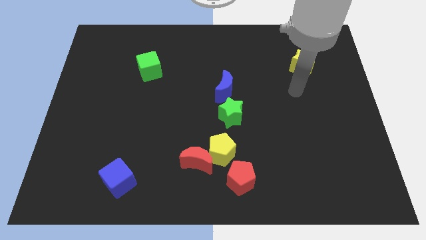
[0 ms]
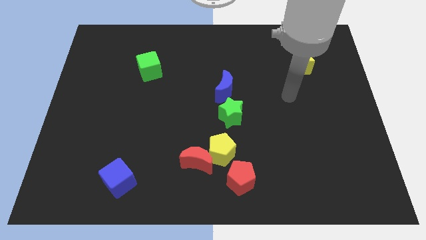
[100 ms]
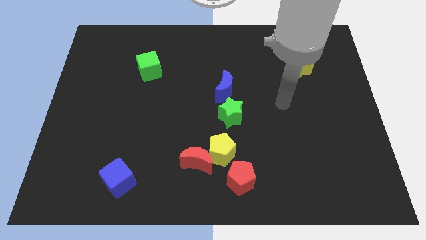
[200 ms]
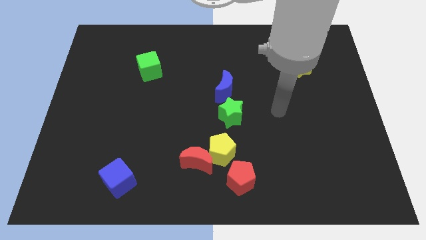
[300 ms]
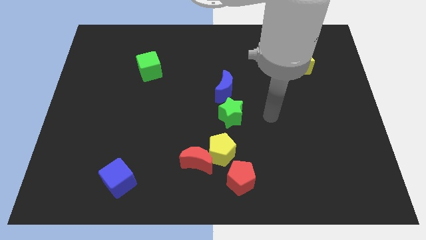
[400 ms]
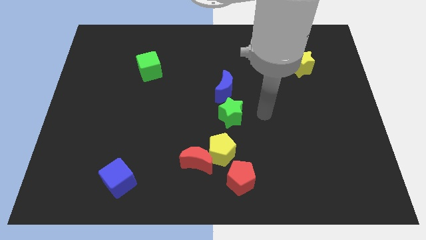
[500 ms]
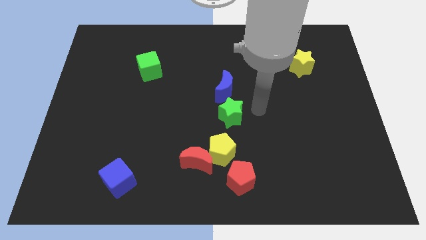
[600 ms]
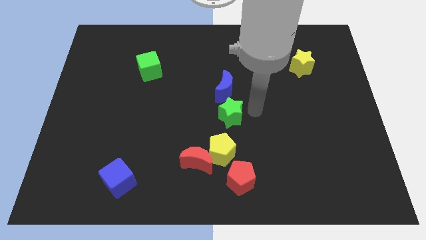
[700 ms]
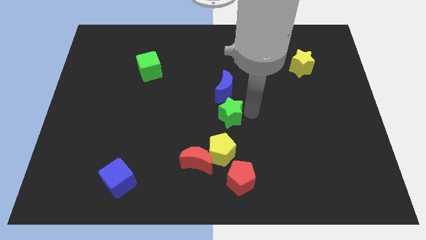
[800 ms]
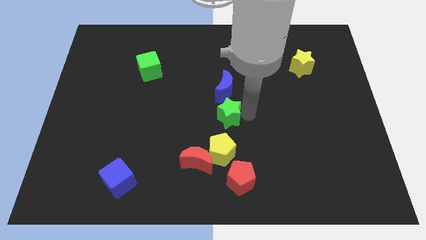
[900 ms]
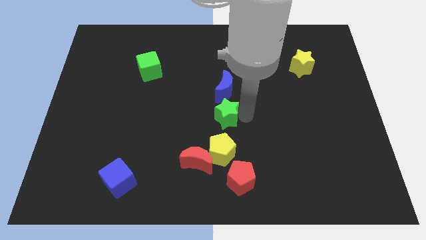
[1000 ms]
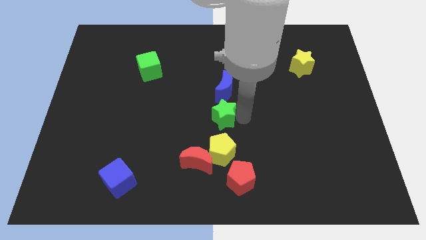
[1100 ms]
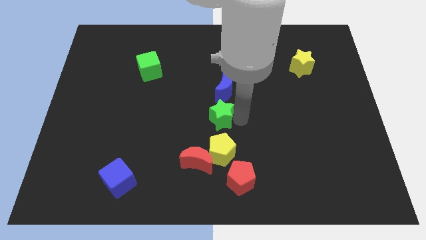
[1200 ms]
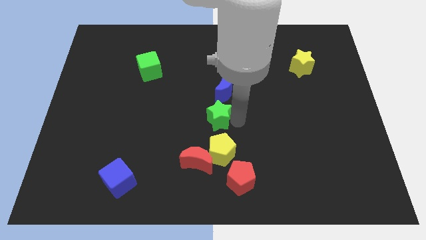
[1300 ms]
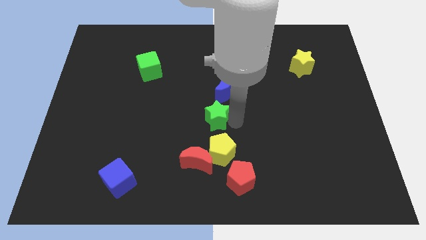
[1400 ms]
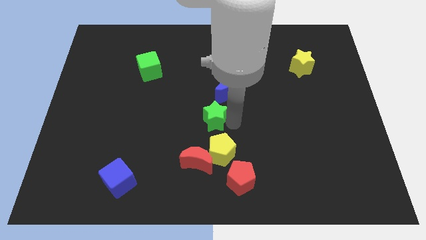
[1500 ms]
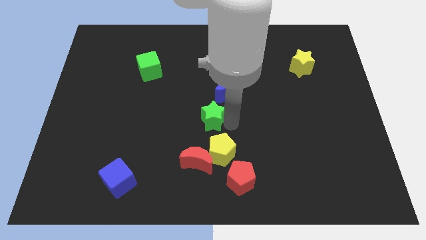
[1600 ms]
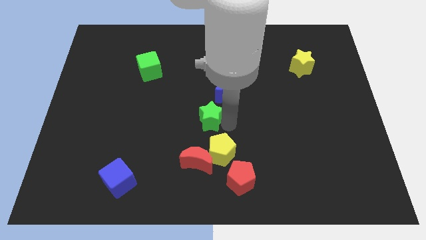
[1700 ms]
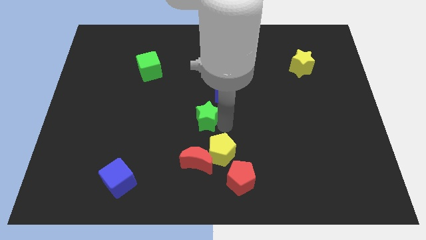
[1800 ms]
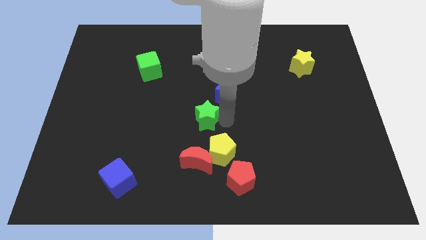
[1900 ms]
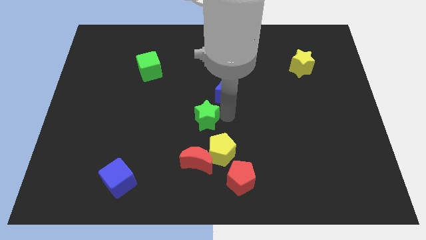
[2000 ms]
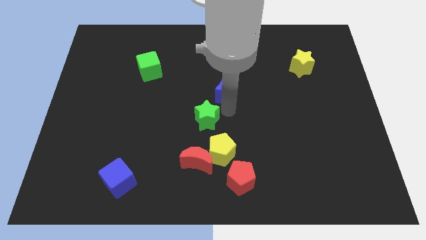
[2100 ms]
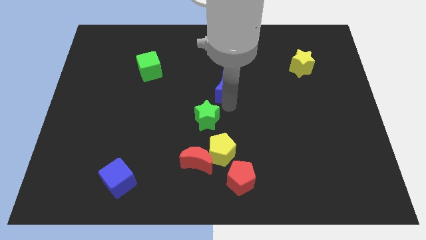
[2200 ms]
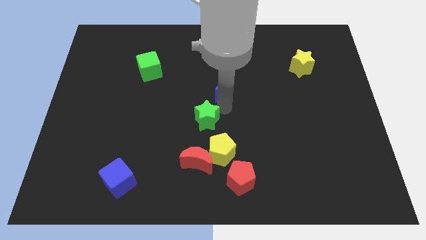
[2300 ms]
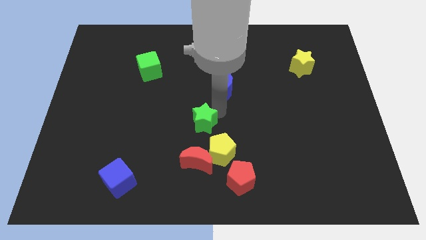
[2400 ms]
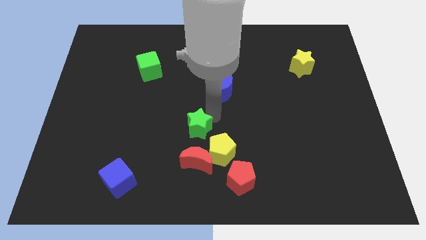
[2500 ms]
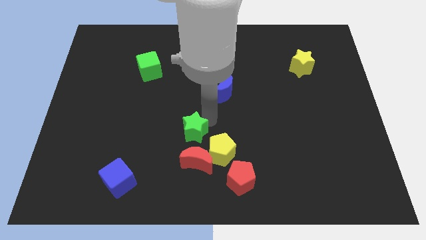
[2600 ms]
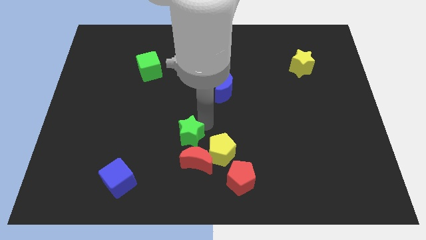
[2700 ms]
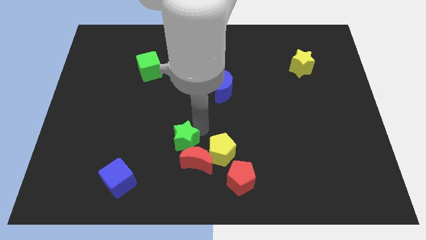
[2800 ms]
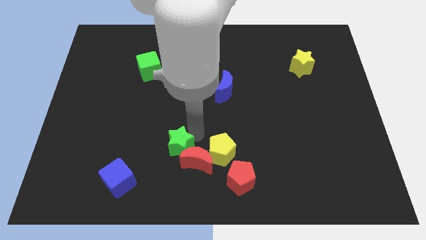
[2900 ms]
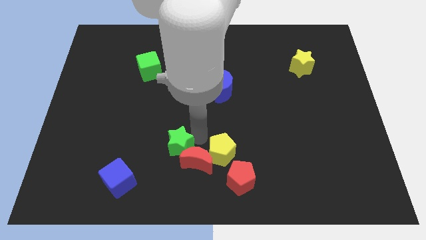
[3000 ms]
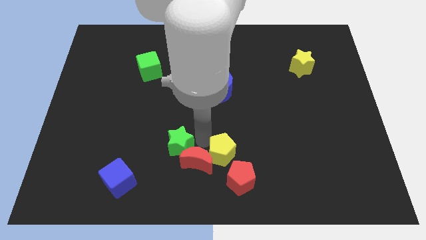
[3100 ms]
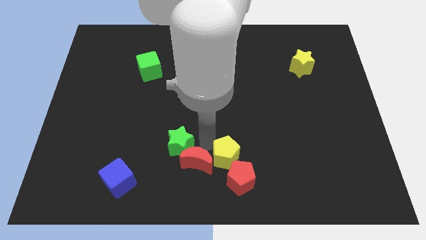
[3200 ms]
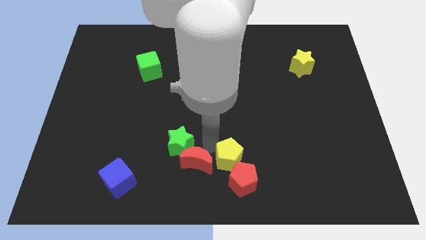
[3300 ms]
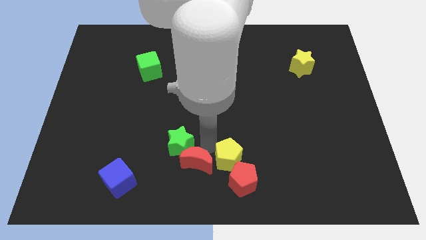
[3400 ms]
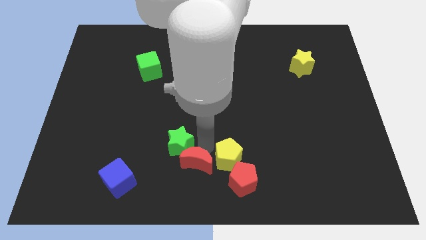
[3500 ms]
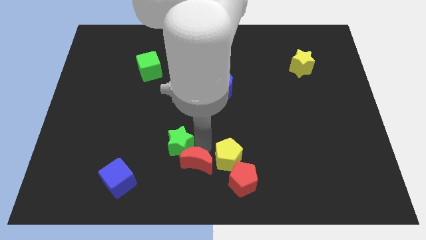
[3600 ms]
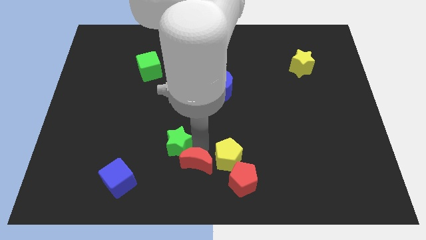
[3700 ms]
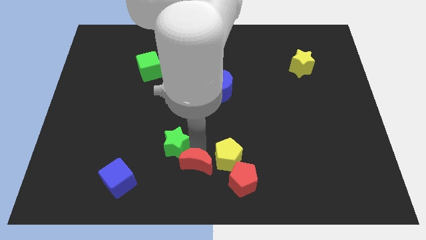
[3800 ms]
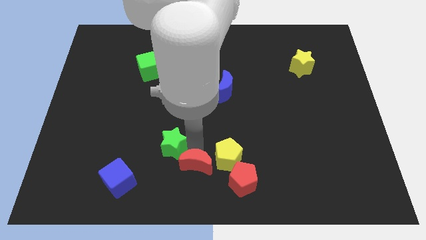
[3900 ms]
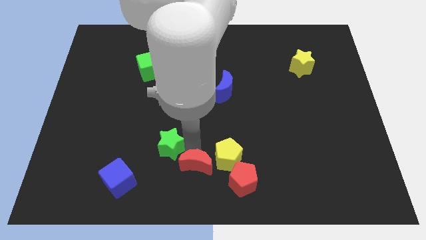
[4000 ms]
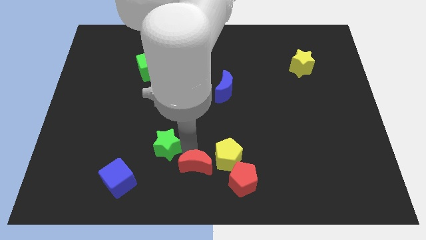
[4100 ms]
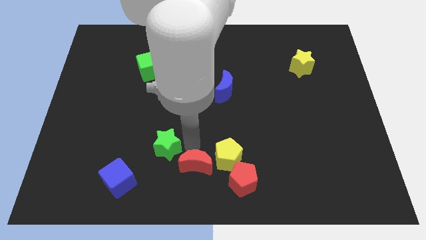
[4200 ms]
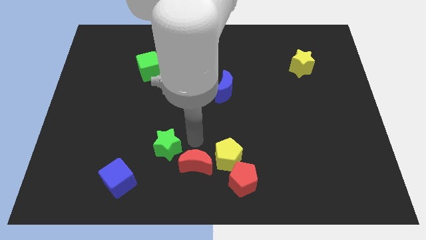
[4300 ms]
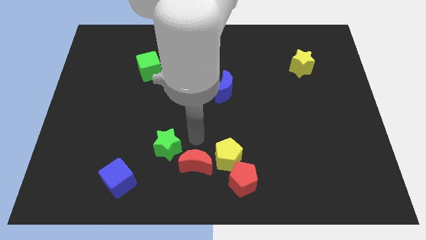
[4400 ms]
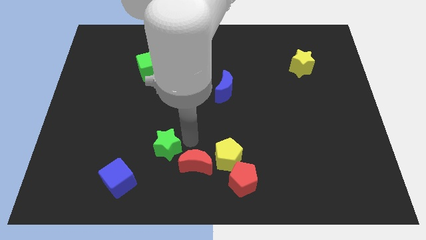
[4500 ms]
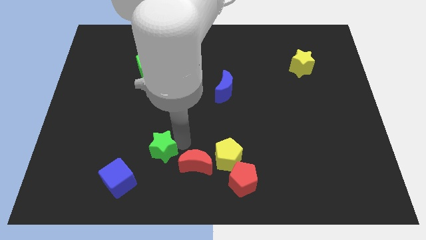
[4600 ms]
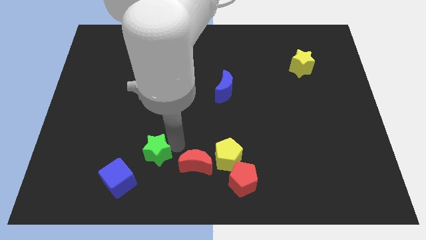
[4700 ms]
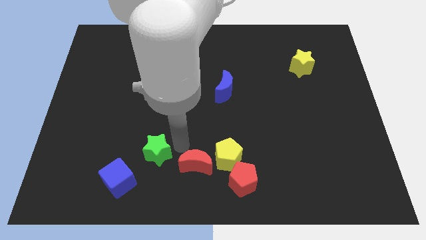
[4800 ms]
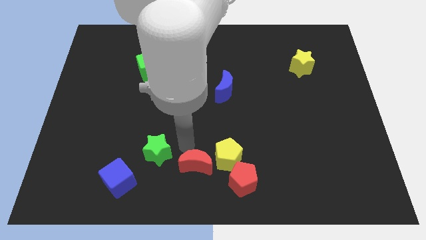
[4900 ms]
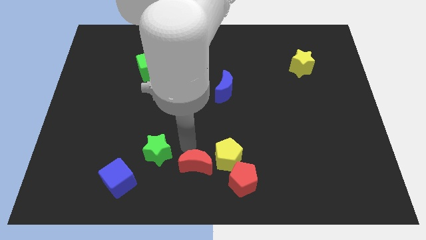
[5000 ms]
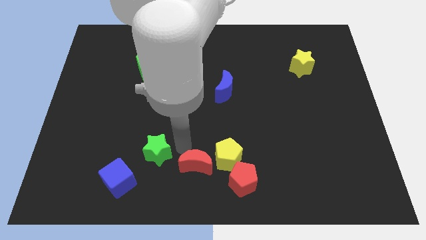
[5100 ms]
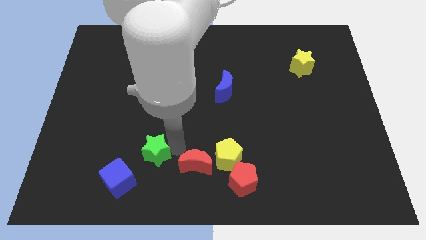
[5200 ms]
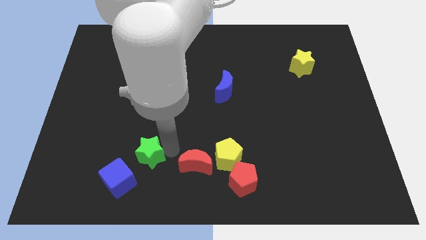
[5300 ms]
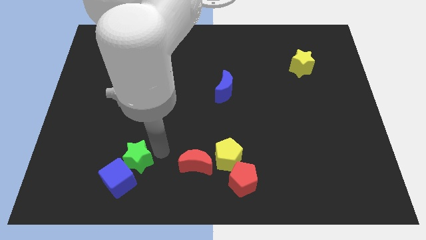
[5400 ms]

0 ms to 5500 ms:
push the green star to the blue cube

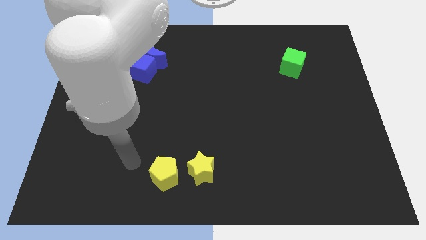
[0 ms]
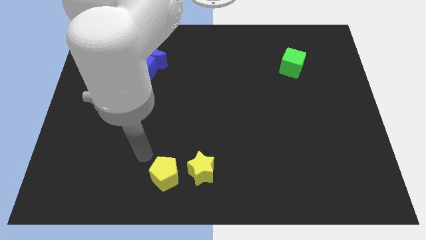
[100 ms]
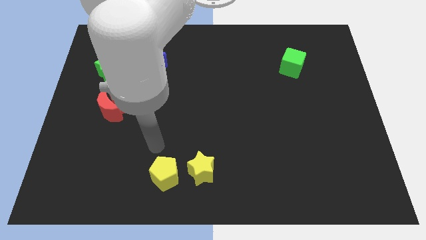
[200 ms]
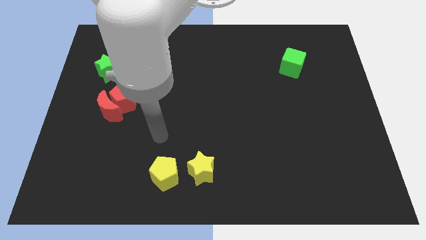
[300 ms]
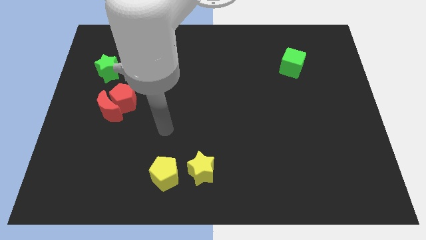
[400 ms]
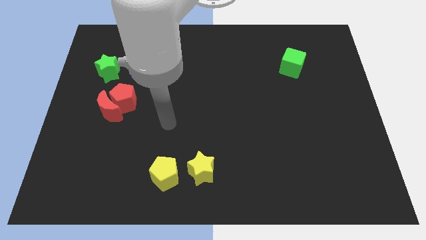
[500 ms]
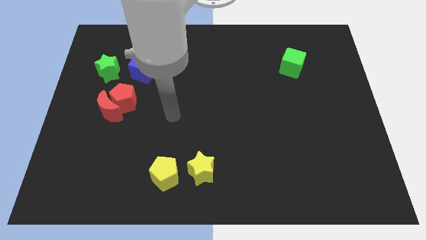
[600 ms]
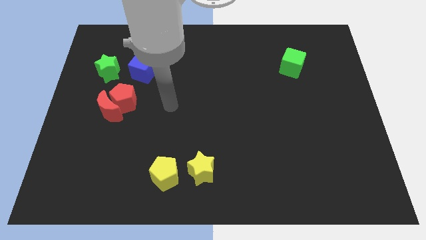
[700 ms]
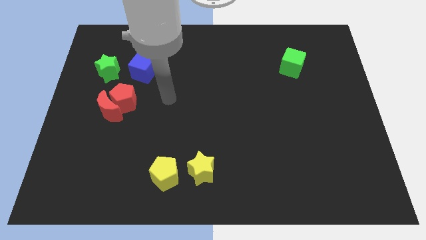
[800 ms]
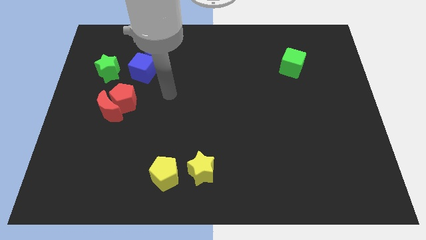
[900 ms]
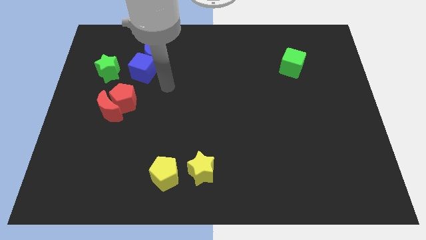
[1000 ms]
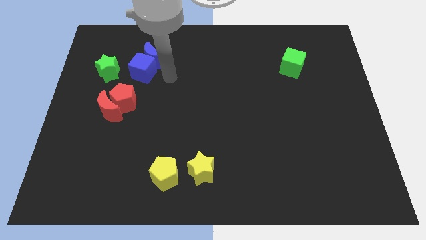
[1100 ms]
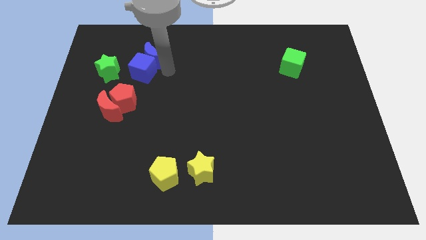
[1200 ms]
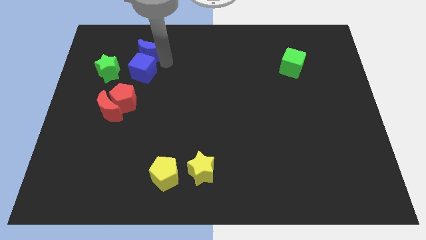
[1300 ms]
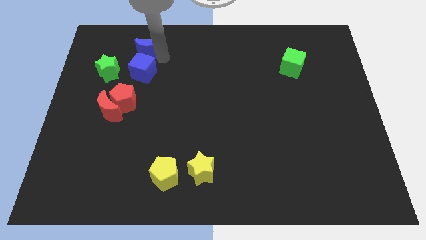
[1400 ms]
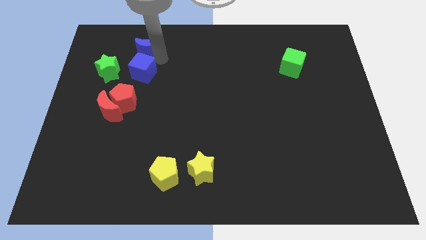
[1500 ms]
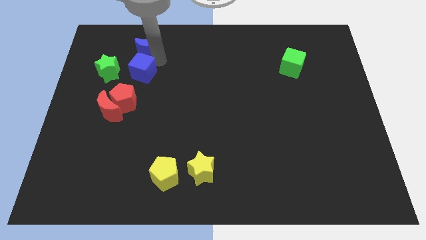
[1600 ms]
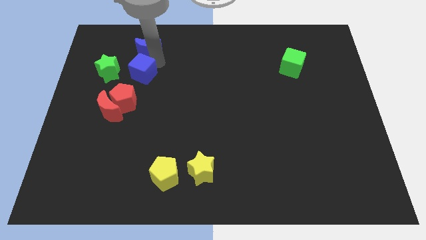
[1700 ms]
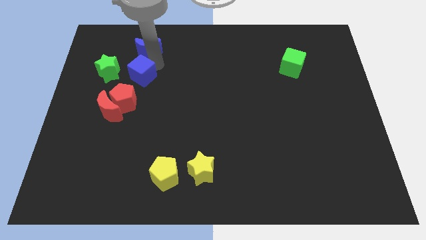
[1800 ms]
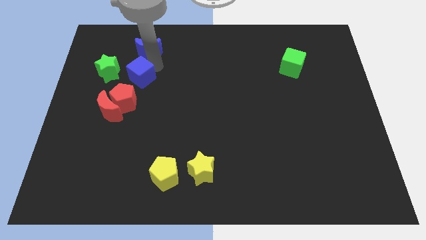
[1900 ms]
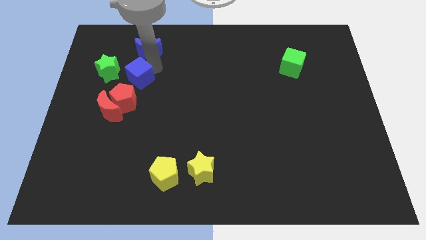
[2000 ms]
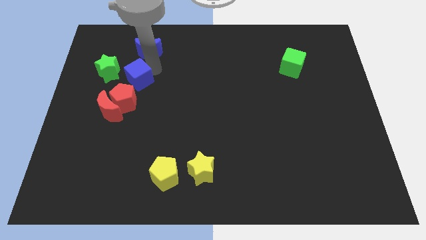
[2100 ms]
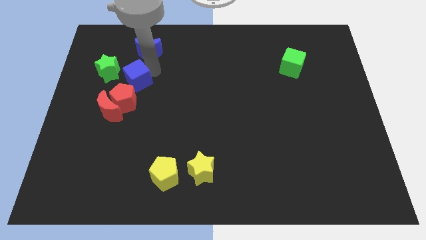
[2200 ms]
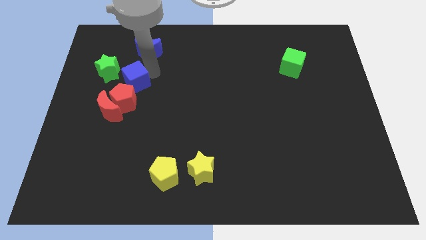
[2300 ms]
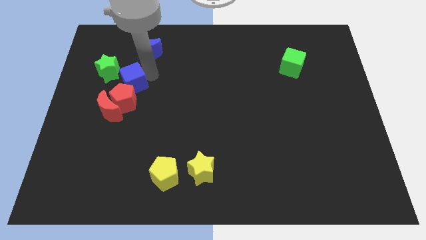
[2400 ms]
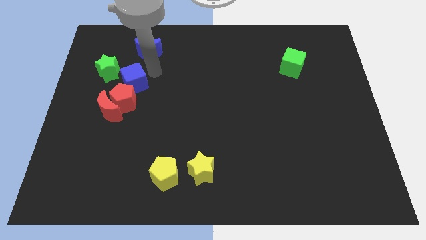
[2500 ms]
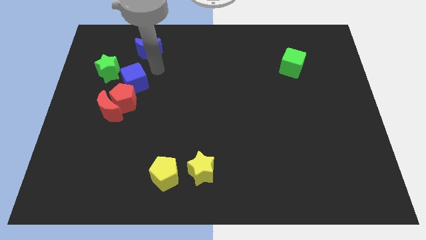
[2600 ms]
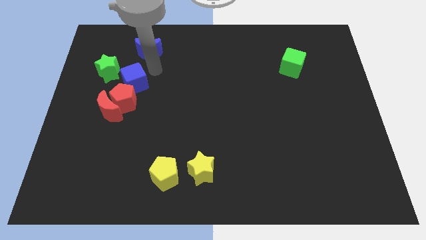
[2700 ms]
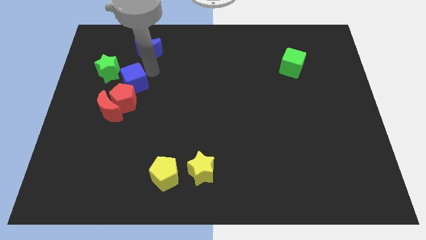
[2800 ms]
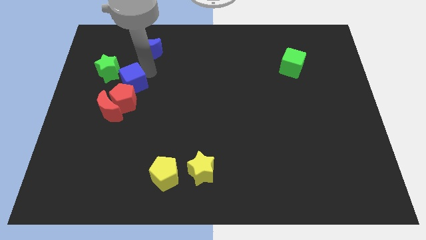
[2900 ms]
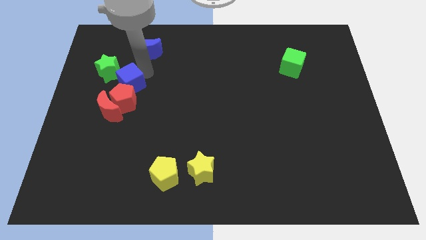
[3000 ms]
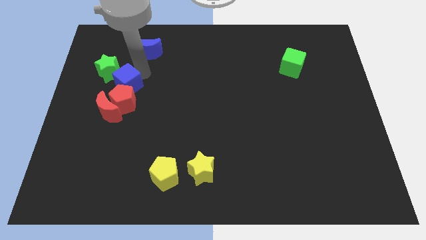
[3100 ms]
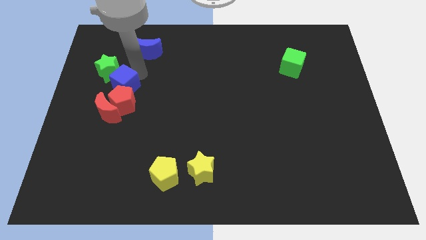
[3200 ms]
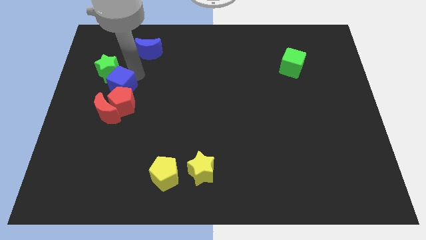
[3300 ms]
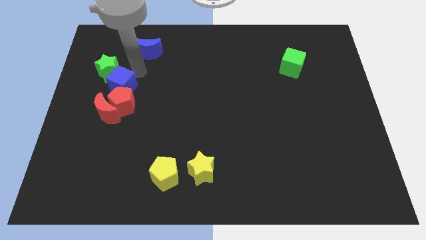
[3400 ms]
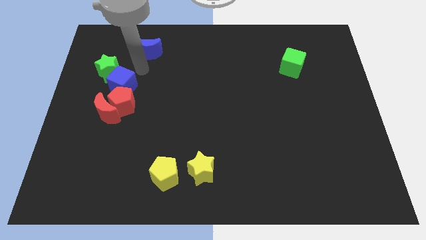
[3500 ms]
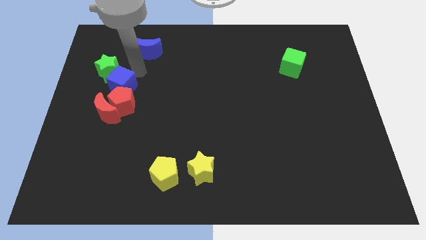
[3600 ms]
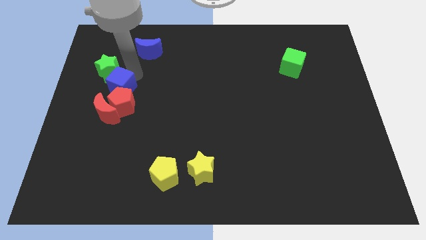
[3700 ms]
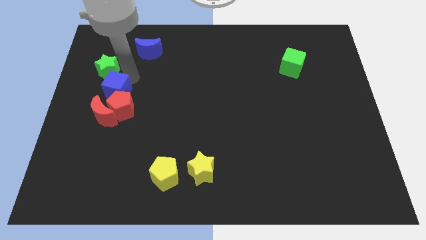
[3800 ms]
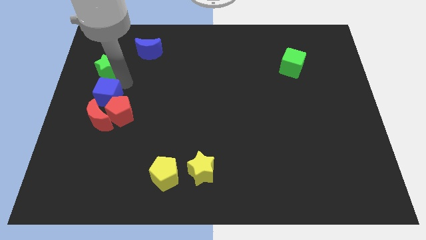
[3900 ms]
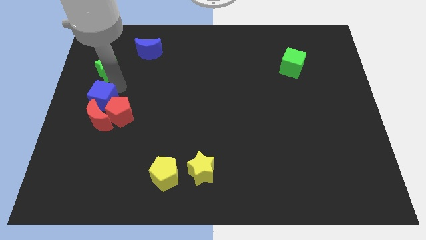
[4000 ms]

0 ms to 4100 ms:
put the blue cube to the red moon
